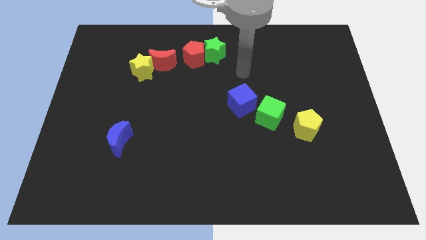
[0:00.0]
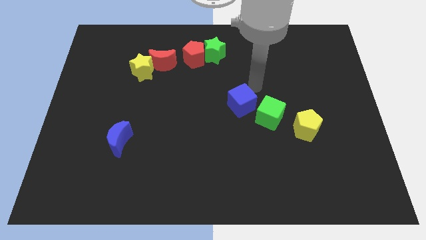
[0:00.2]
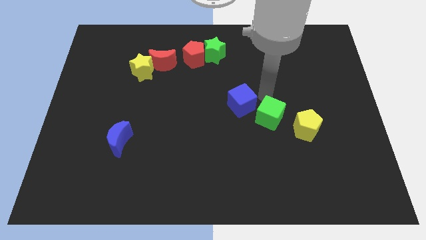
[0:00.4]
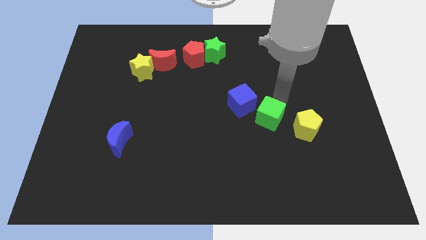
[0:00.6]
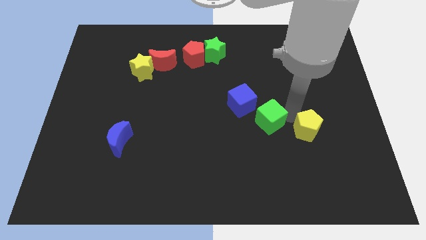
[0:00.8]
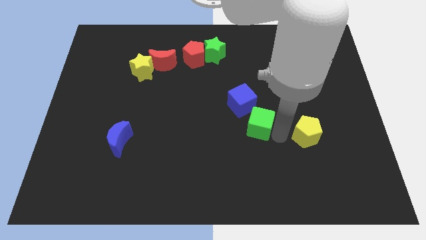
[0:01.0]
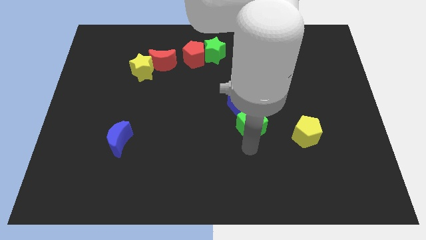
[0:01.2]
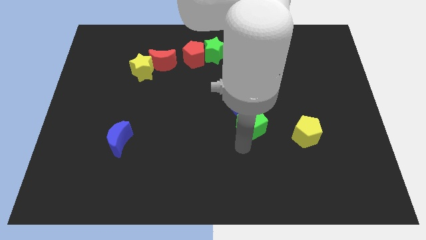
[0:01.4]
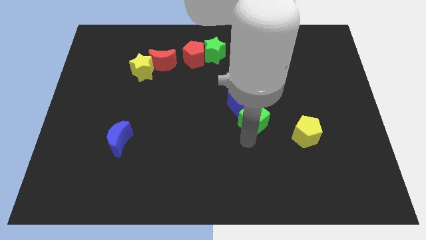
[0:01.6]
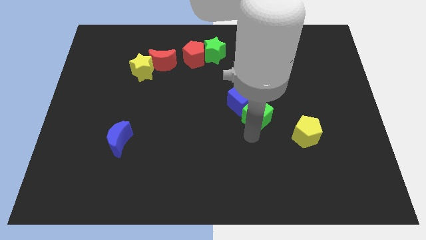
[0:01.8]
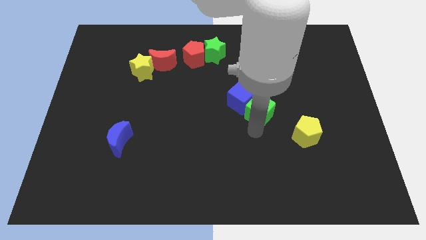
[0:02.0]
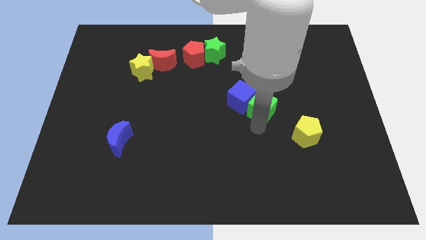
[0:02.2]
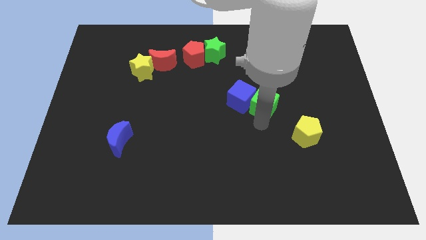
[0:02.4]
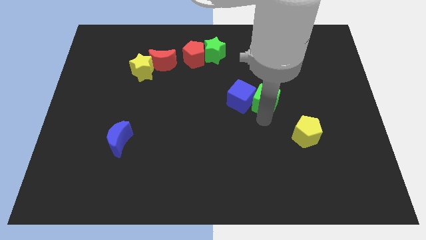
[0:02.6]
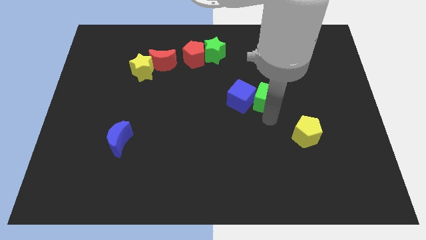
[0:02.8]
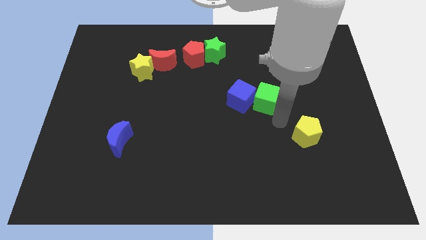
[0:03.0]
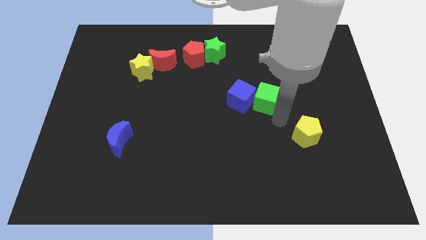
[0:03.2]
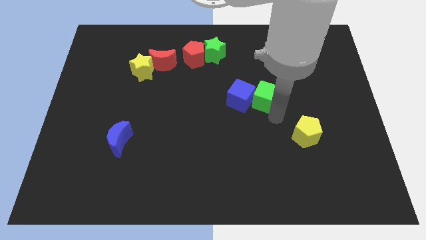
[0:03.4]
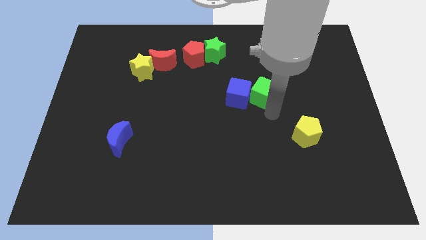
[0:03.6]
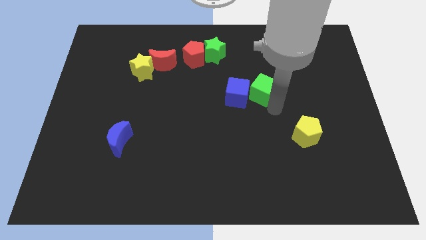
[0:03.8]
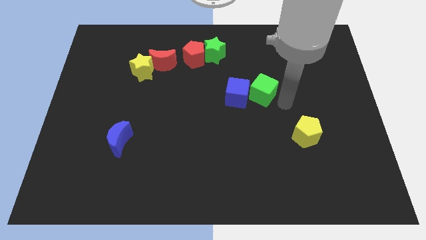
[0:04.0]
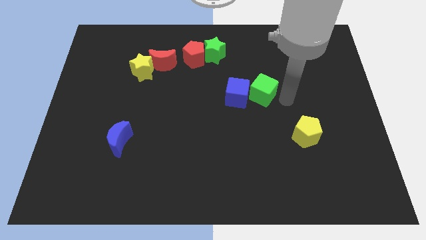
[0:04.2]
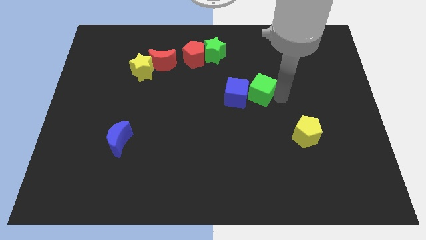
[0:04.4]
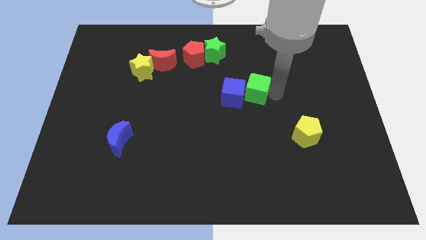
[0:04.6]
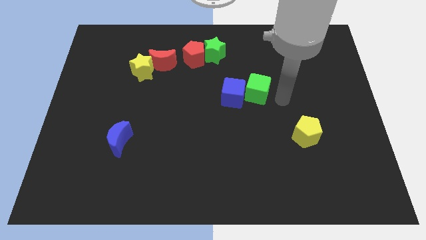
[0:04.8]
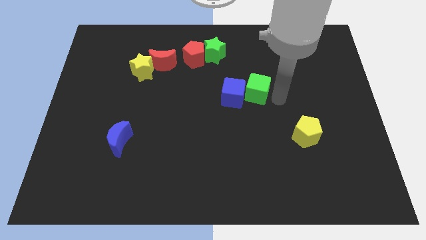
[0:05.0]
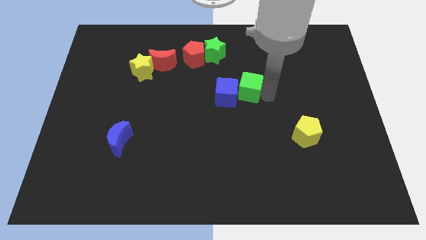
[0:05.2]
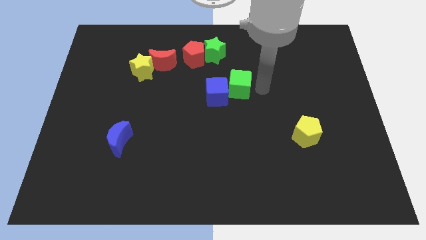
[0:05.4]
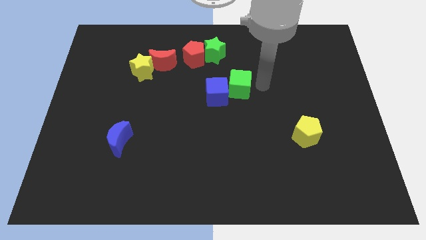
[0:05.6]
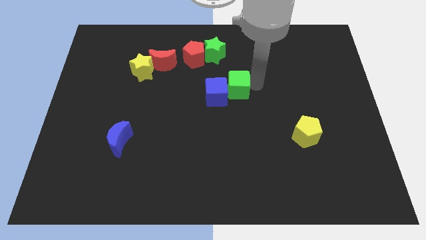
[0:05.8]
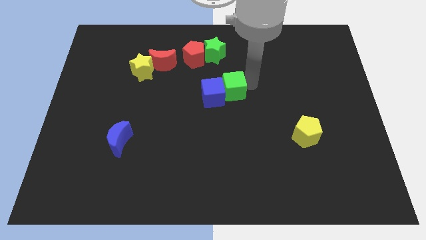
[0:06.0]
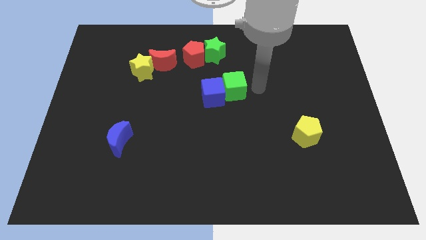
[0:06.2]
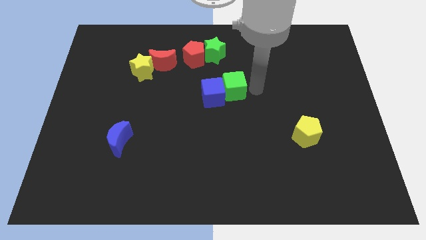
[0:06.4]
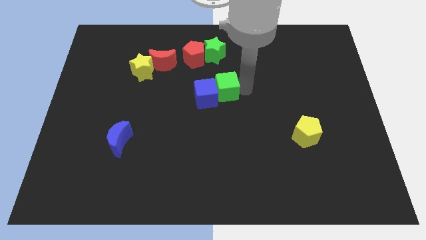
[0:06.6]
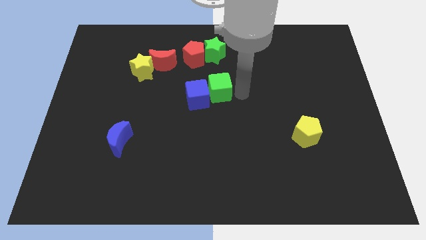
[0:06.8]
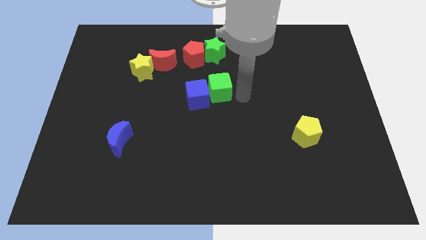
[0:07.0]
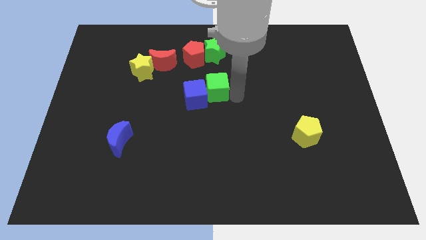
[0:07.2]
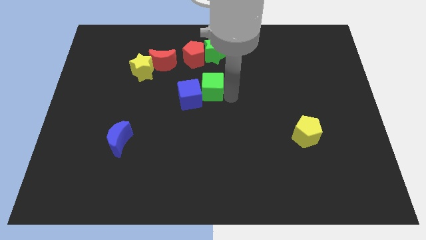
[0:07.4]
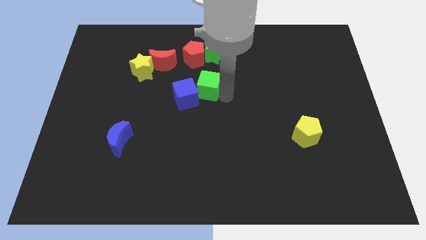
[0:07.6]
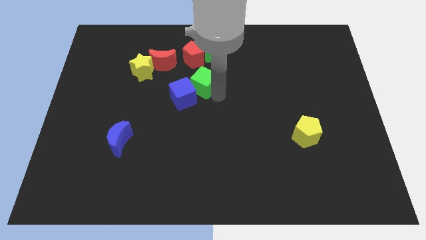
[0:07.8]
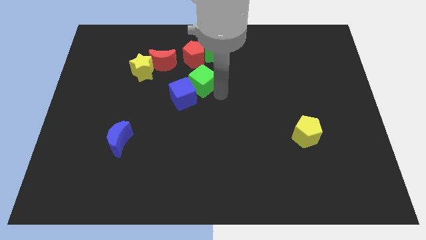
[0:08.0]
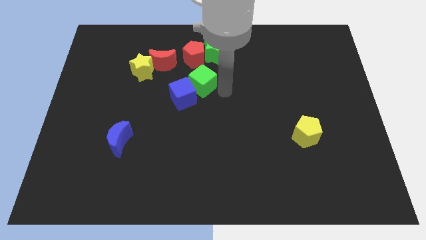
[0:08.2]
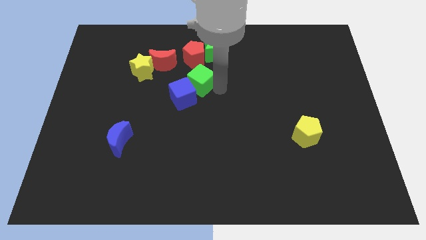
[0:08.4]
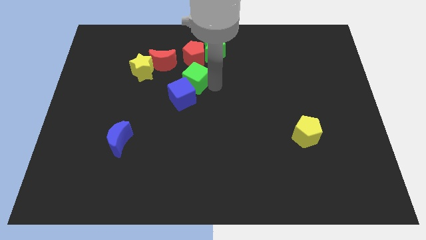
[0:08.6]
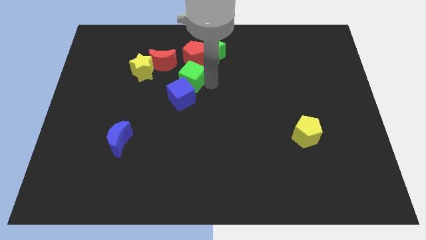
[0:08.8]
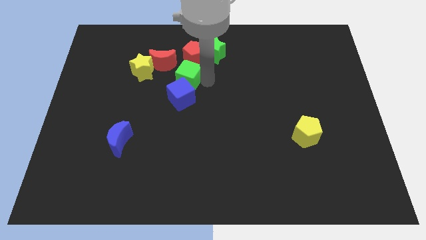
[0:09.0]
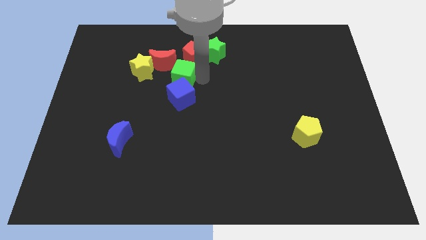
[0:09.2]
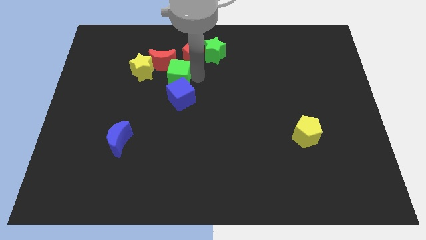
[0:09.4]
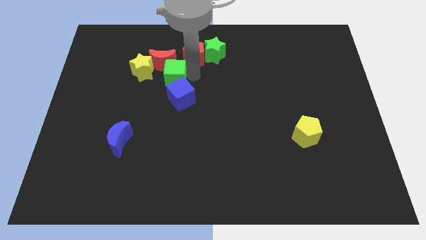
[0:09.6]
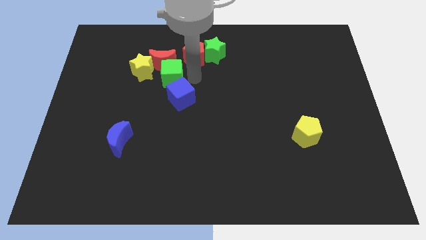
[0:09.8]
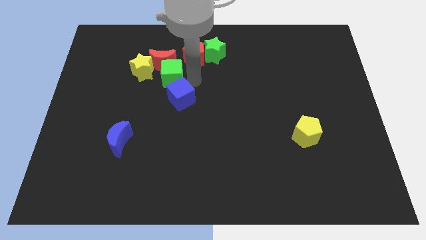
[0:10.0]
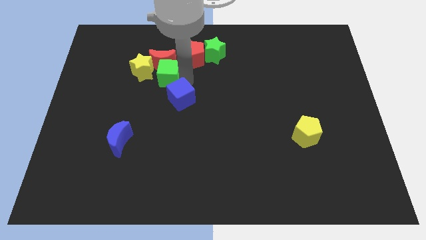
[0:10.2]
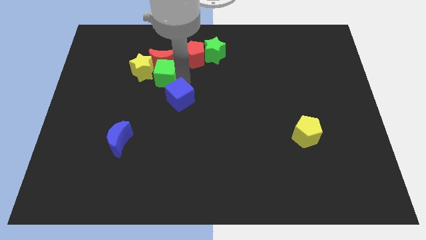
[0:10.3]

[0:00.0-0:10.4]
slide the green cube next to the yellow star
